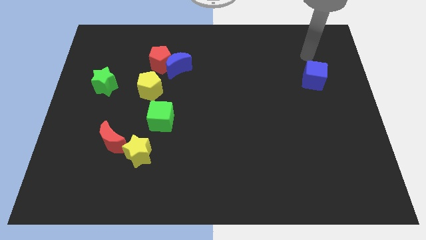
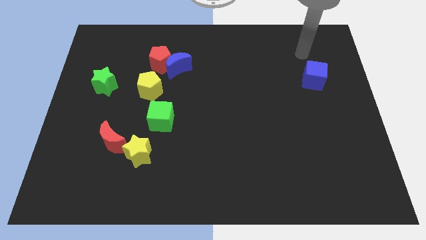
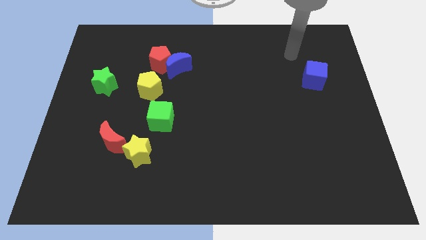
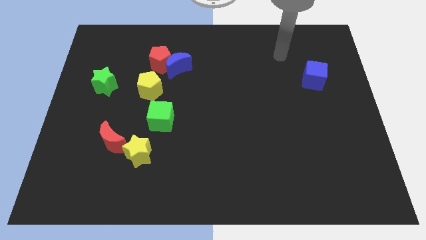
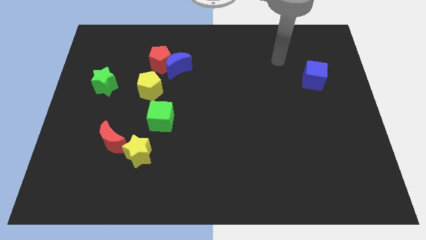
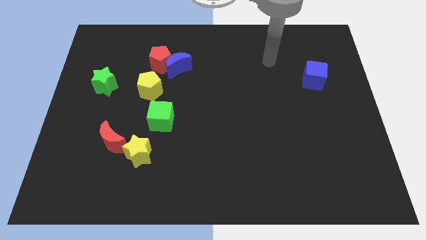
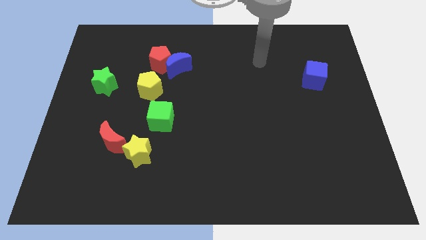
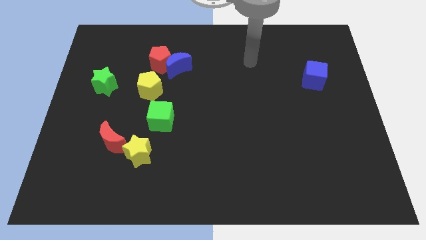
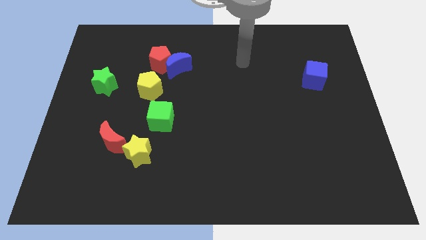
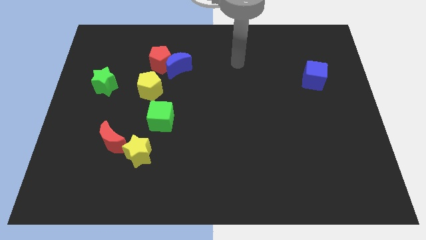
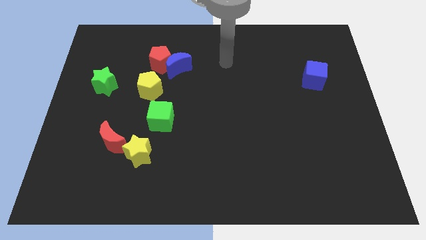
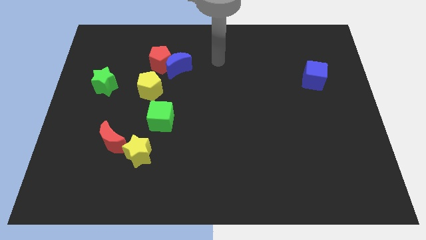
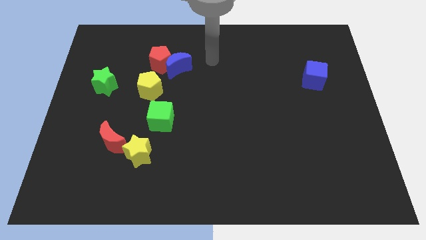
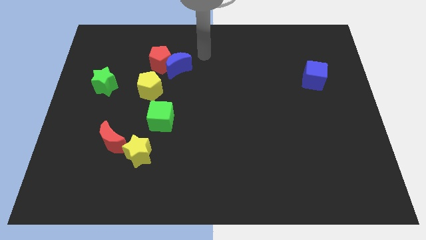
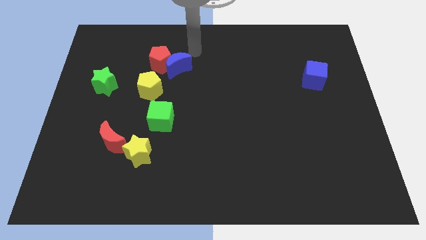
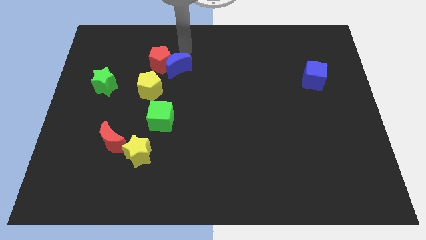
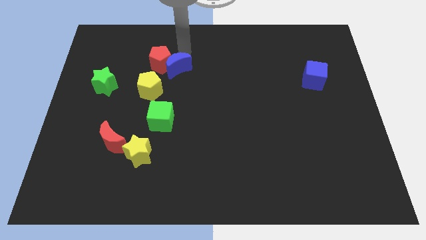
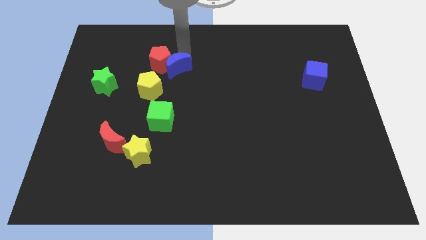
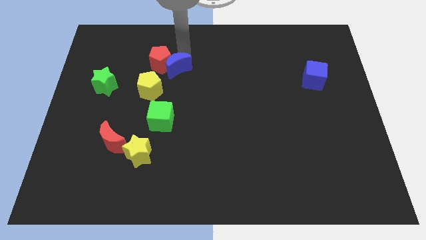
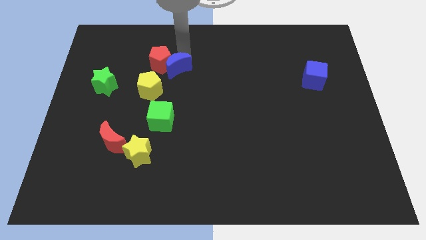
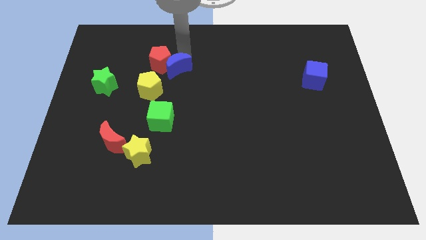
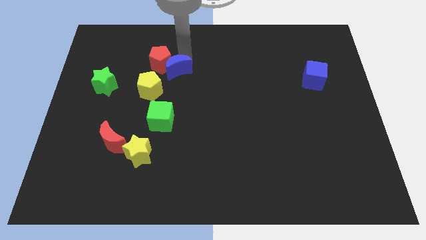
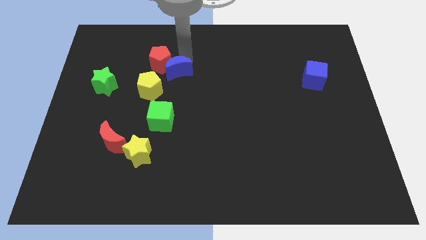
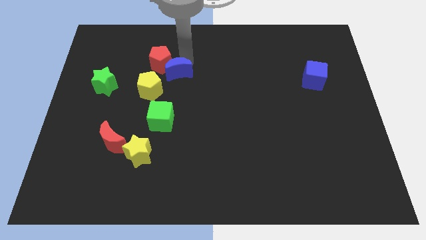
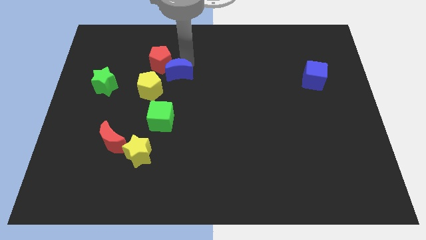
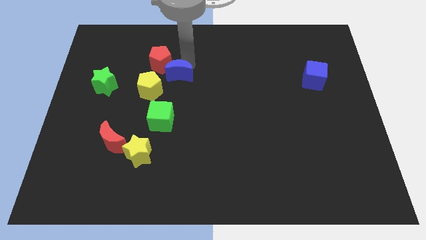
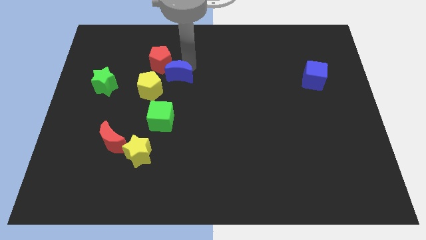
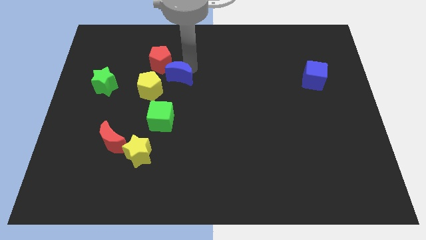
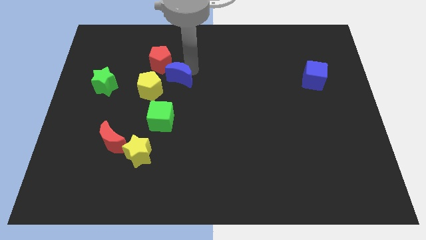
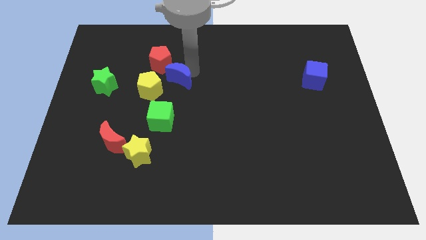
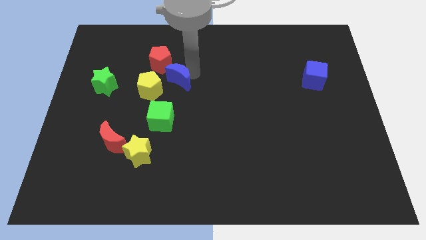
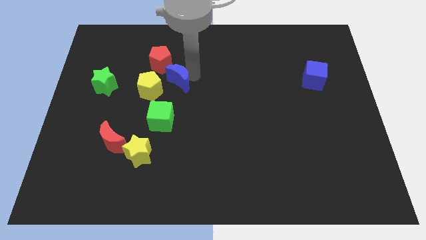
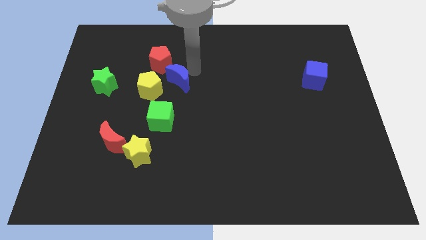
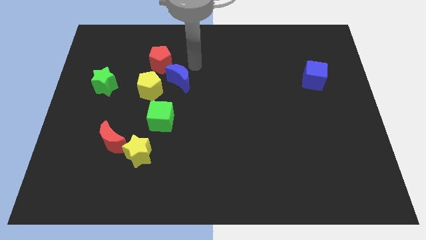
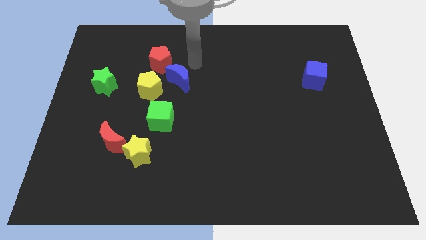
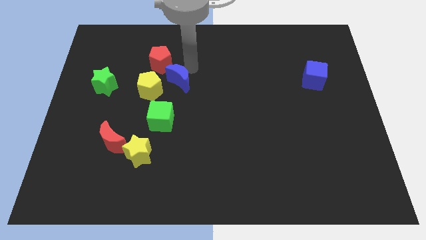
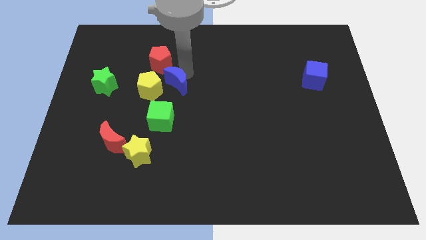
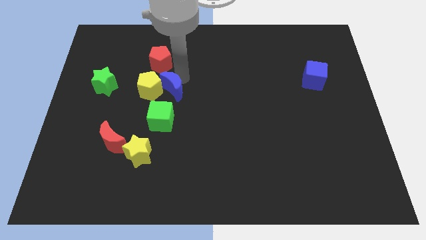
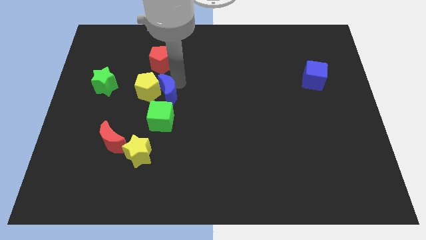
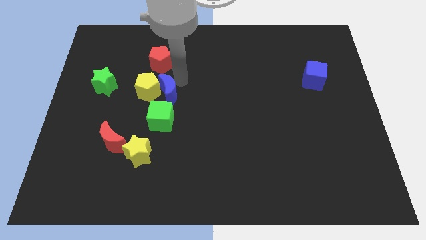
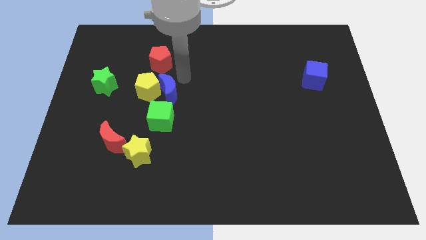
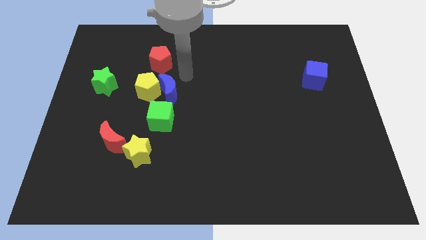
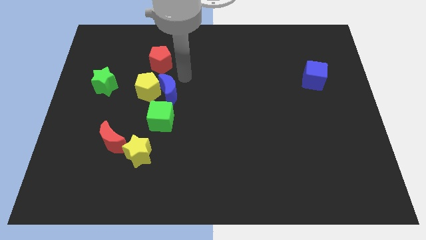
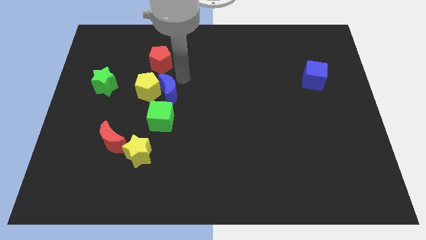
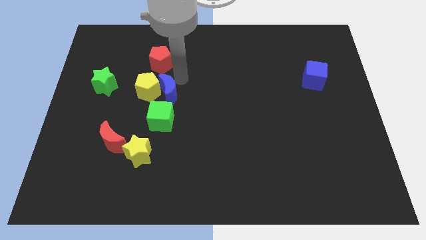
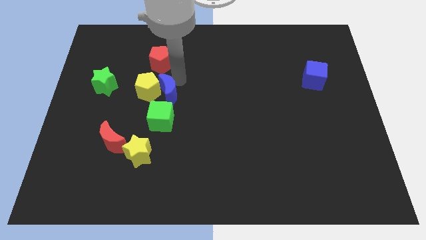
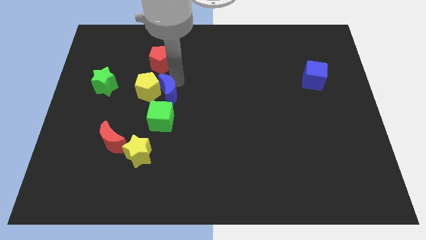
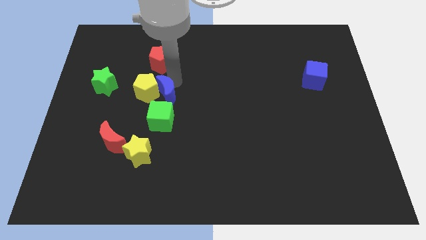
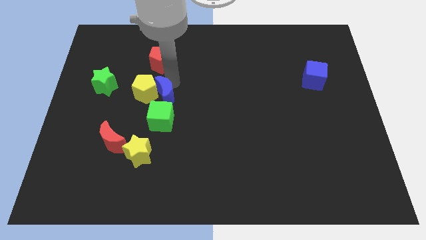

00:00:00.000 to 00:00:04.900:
push the blue moon a little bit downwards and left diagonally

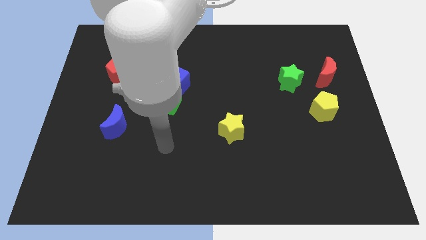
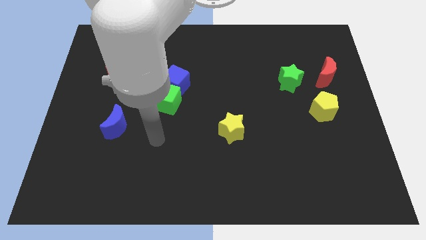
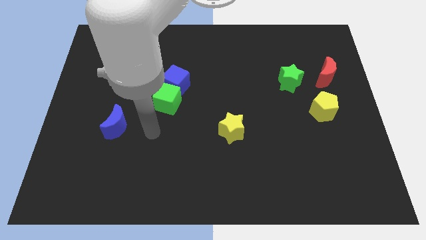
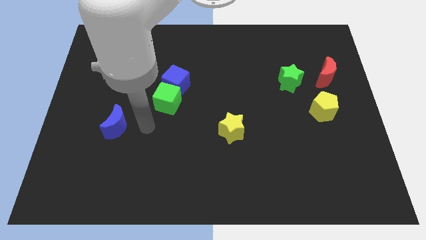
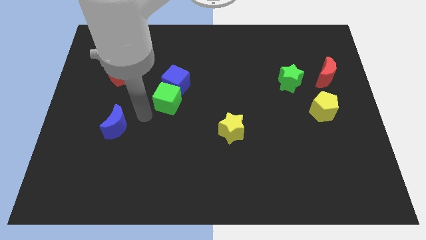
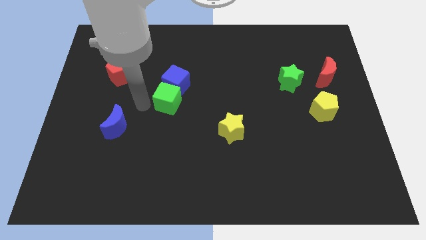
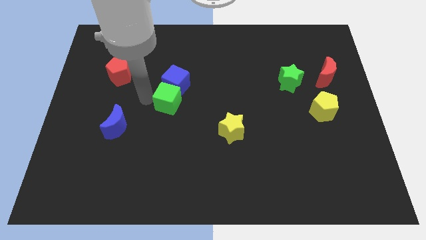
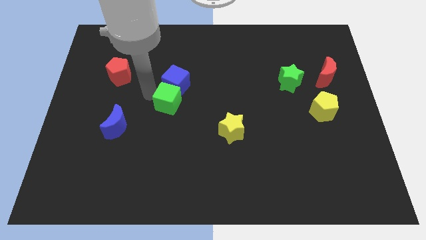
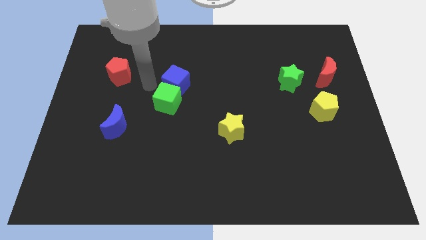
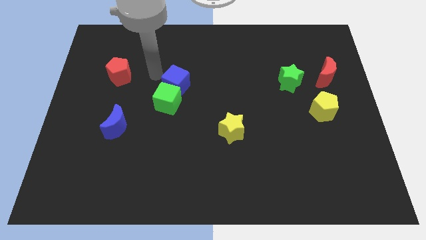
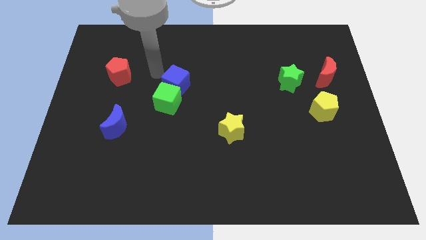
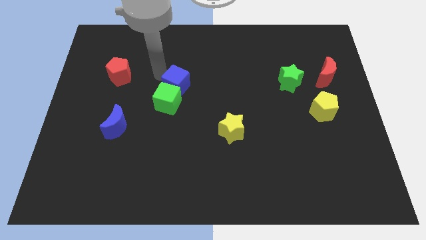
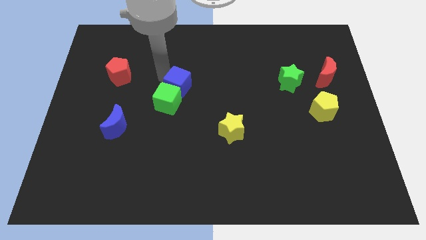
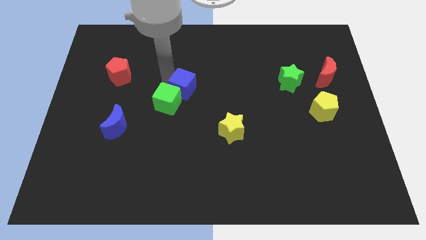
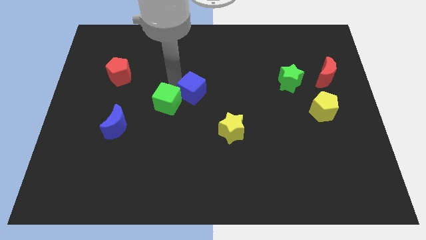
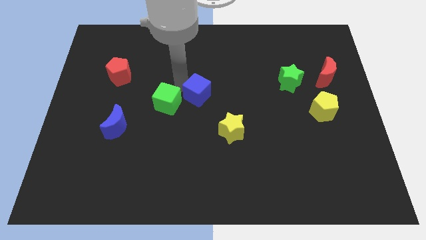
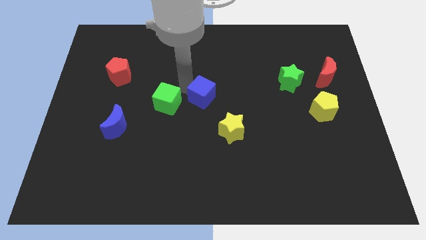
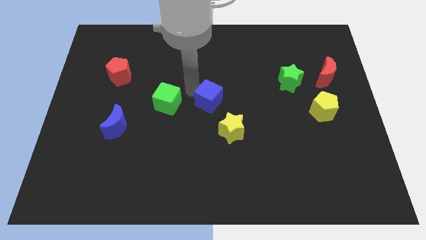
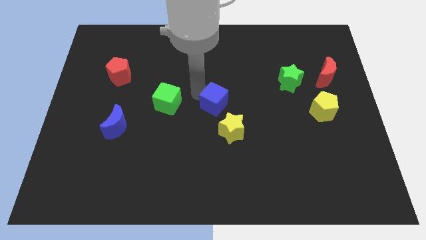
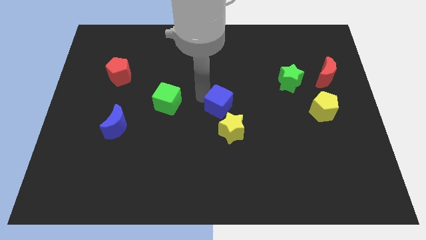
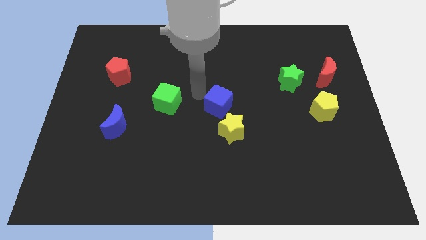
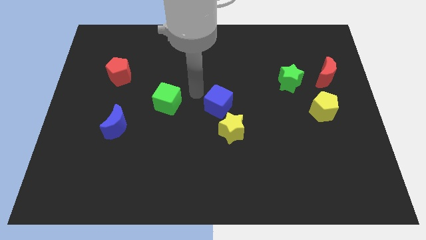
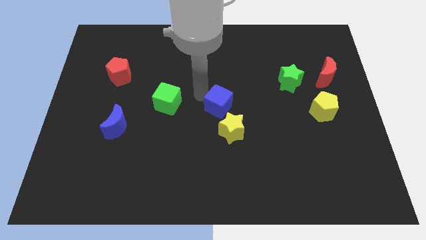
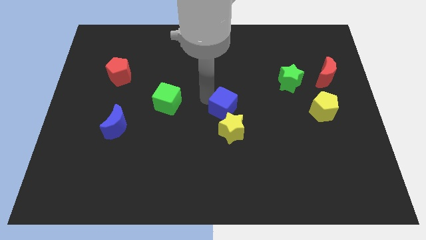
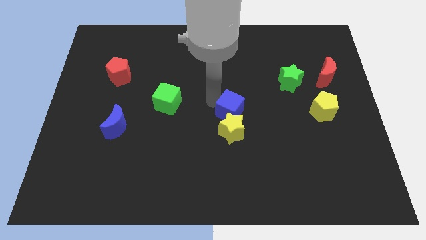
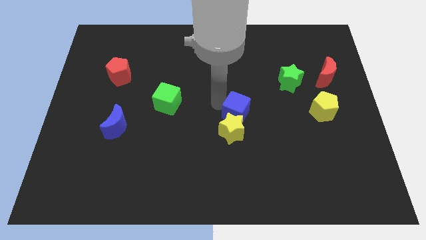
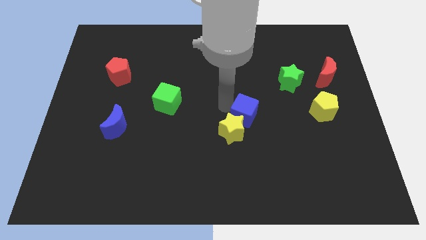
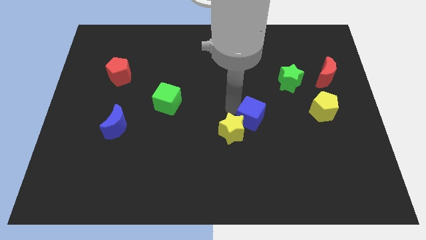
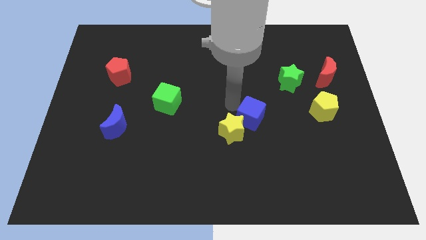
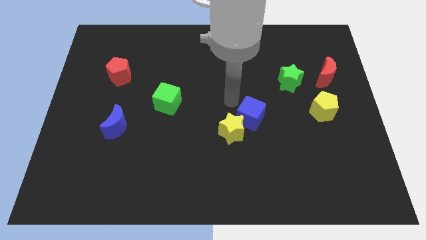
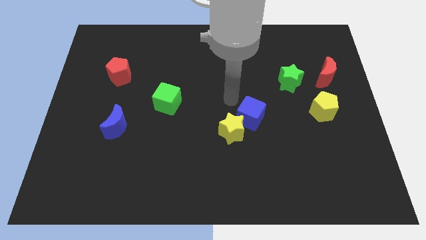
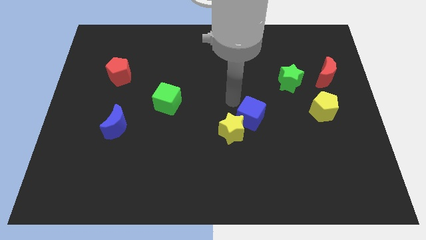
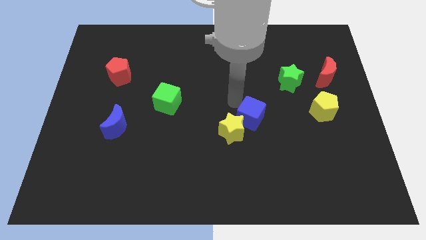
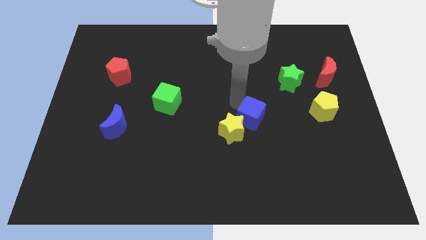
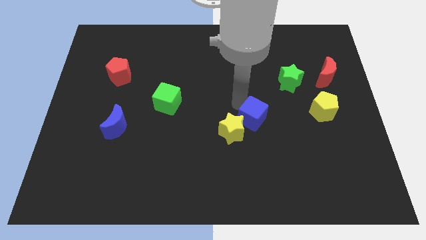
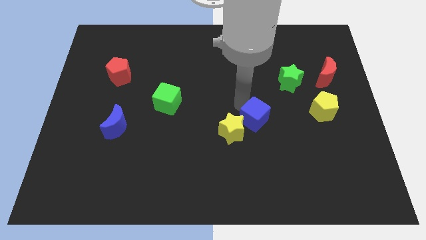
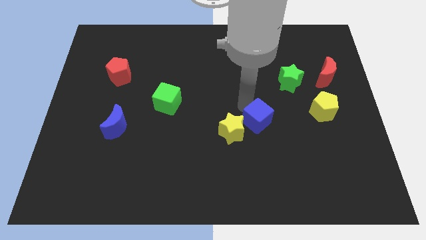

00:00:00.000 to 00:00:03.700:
slide the blue cube down and to the right diagonally
